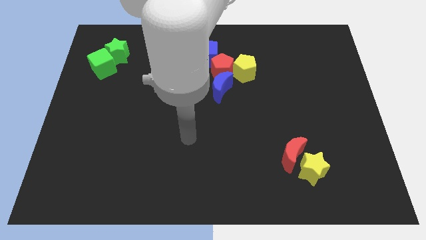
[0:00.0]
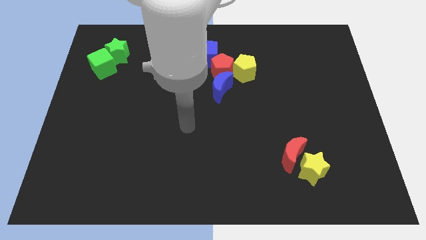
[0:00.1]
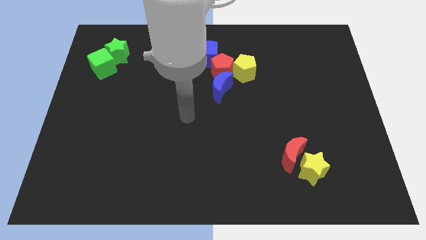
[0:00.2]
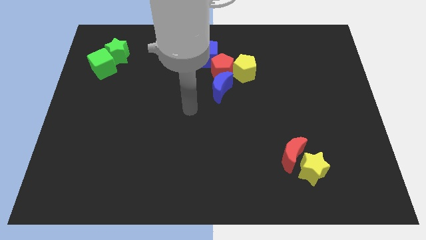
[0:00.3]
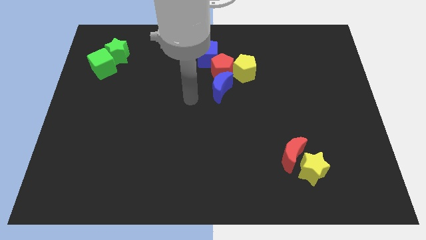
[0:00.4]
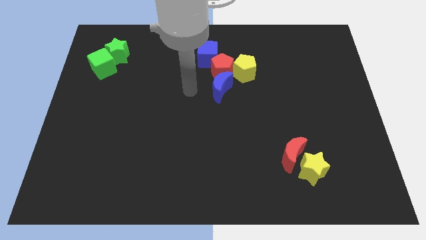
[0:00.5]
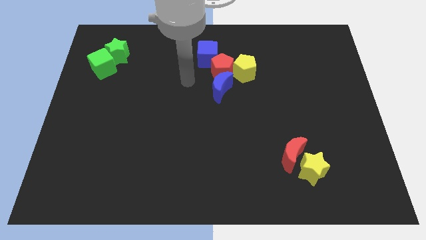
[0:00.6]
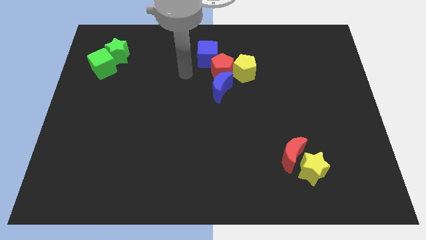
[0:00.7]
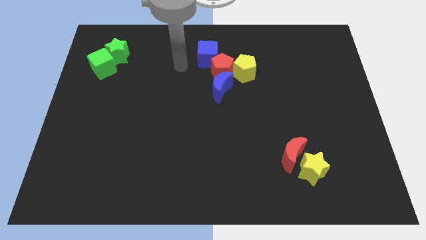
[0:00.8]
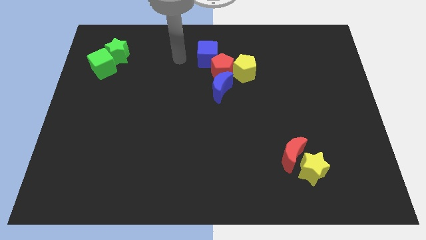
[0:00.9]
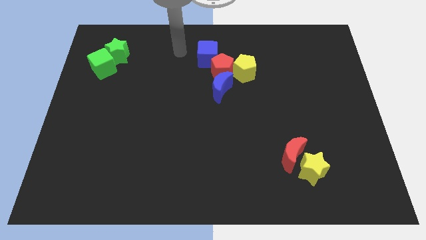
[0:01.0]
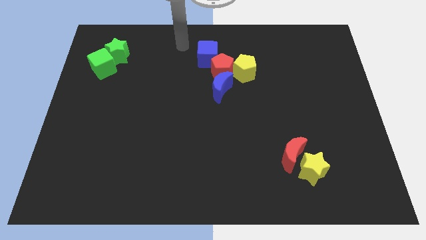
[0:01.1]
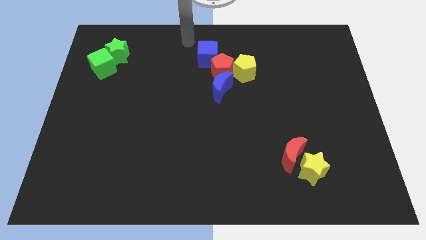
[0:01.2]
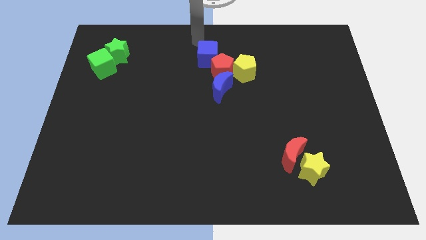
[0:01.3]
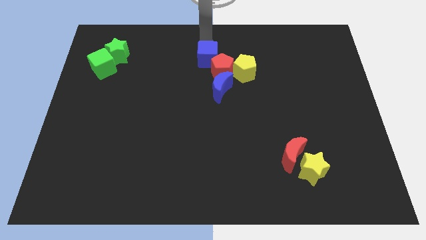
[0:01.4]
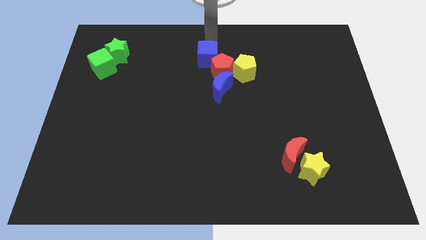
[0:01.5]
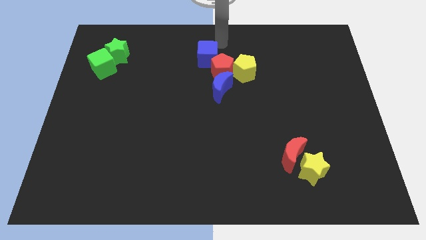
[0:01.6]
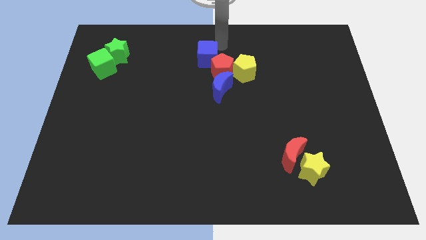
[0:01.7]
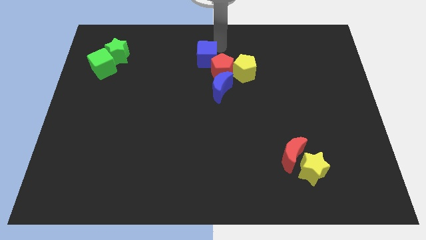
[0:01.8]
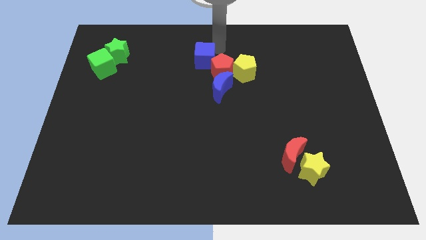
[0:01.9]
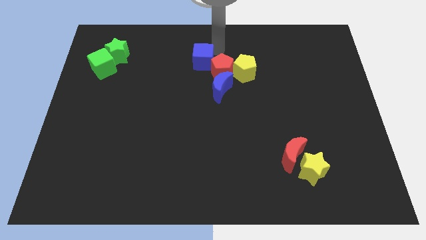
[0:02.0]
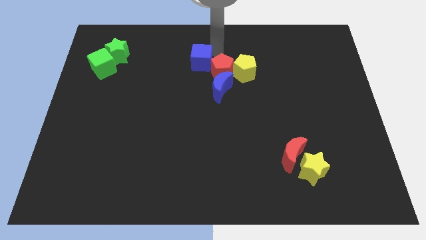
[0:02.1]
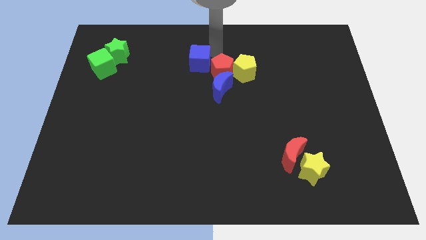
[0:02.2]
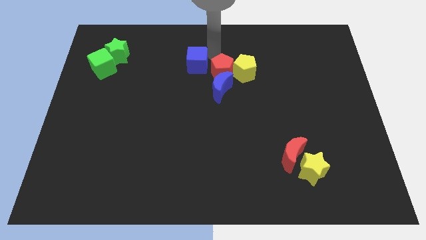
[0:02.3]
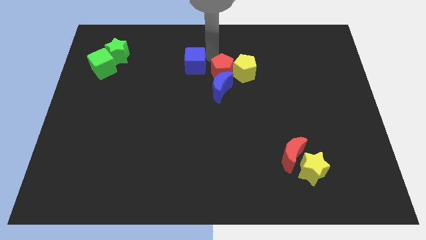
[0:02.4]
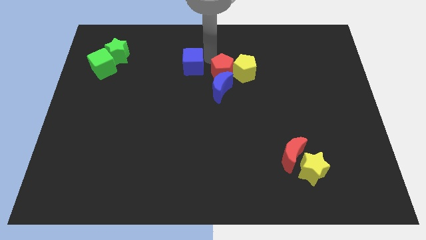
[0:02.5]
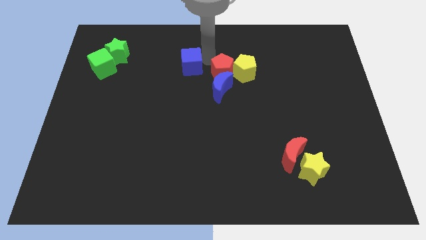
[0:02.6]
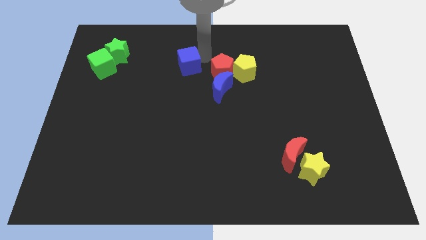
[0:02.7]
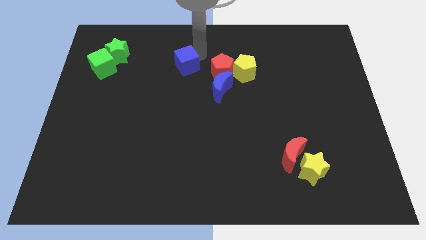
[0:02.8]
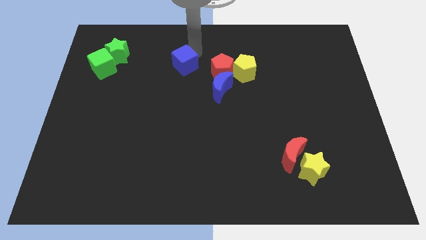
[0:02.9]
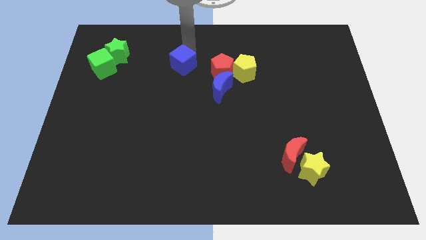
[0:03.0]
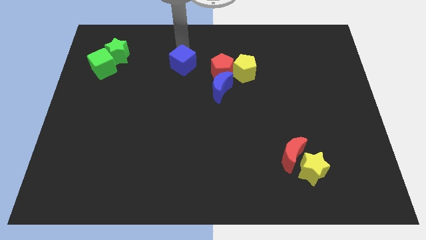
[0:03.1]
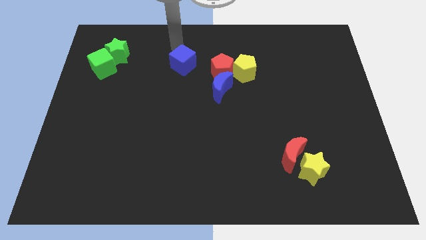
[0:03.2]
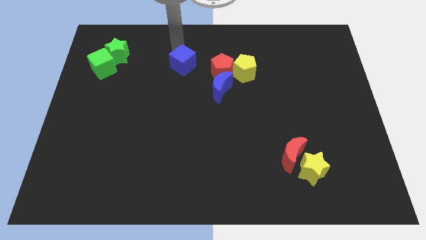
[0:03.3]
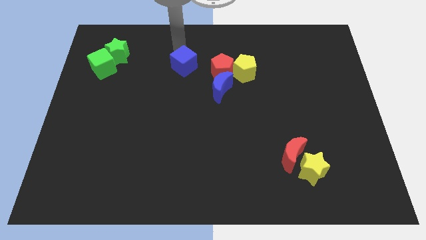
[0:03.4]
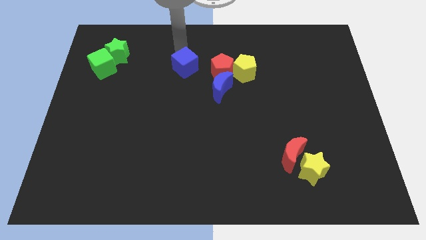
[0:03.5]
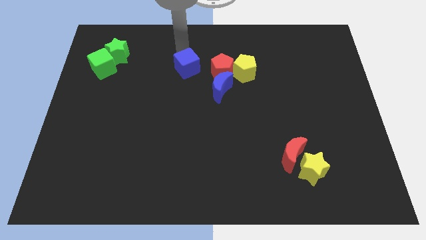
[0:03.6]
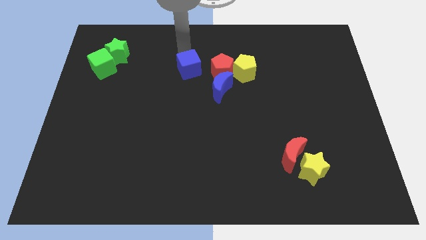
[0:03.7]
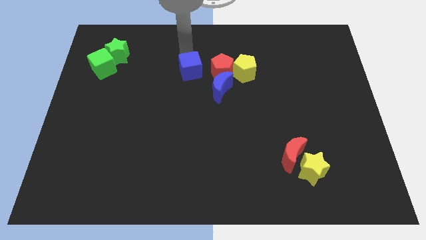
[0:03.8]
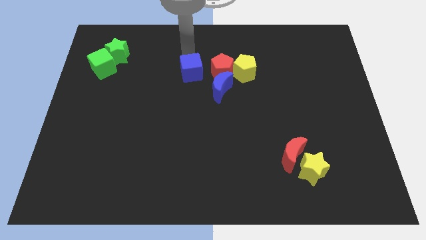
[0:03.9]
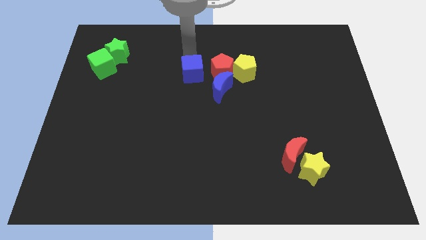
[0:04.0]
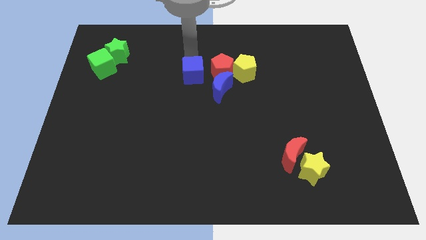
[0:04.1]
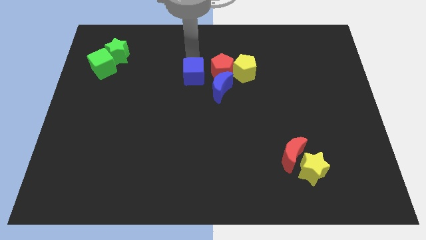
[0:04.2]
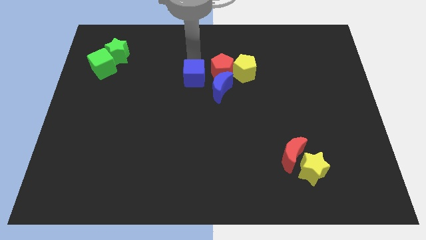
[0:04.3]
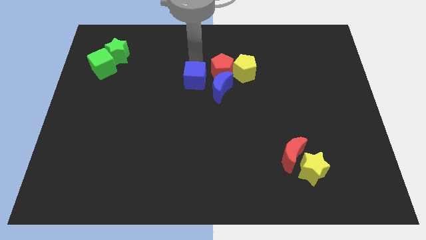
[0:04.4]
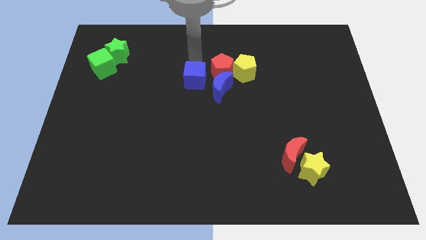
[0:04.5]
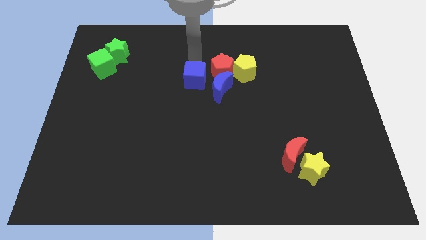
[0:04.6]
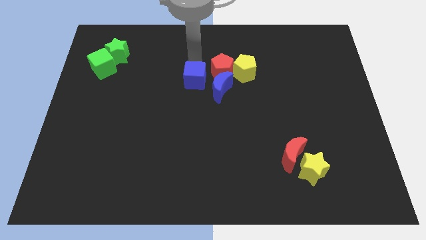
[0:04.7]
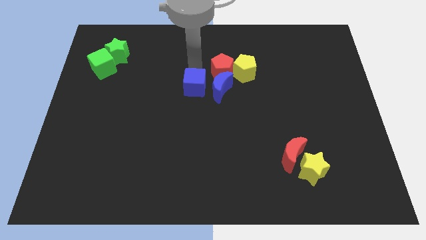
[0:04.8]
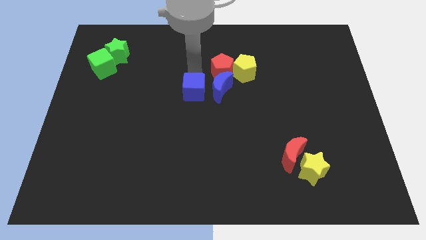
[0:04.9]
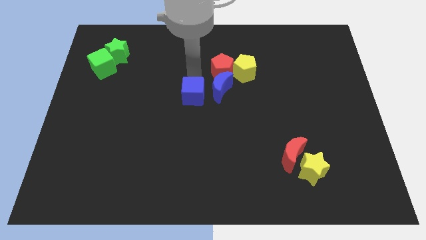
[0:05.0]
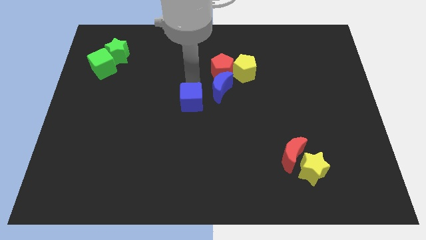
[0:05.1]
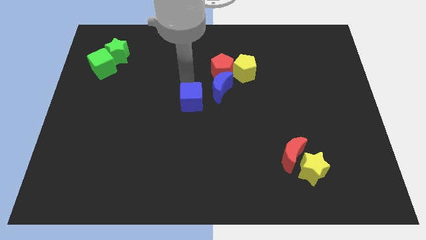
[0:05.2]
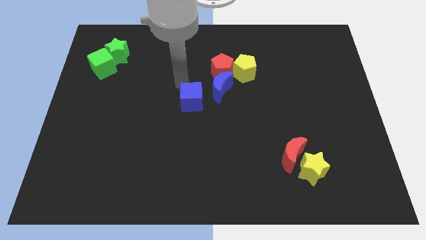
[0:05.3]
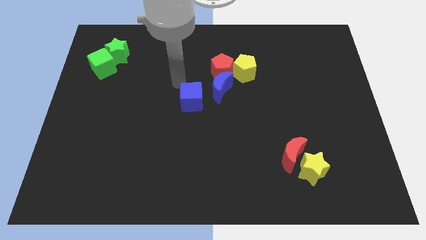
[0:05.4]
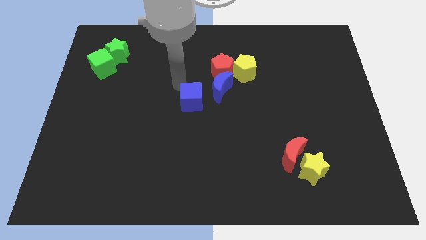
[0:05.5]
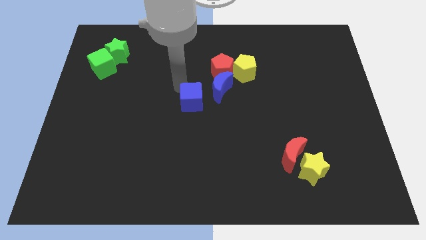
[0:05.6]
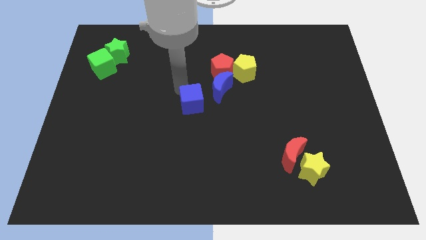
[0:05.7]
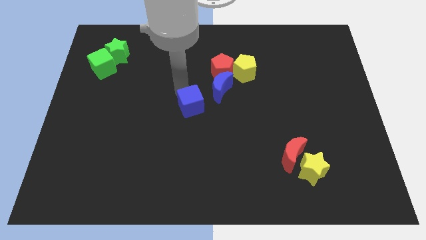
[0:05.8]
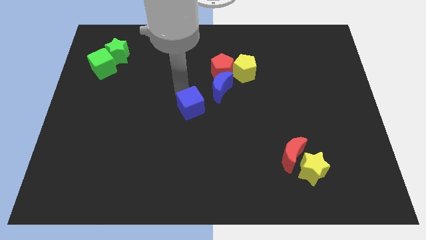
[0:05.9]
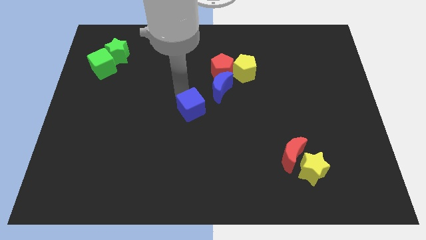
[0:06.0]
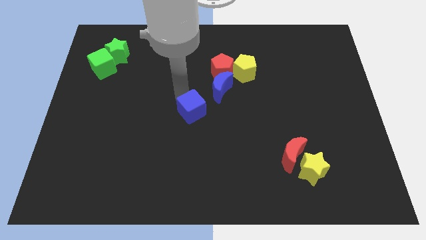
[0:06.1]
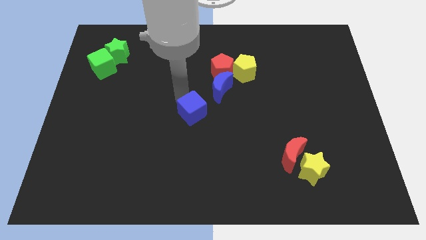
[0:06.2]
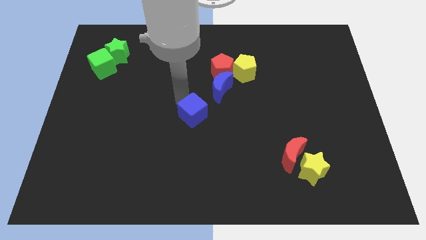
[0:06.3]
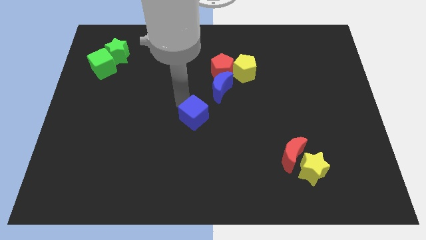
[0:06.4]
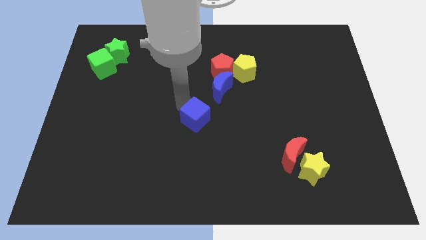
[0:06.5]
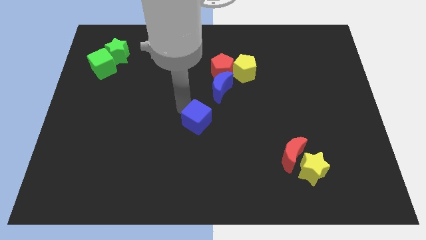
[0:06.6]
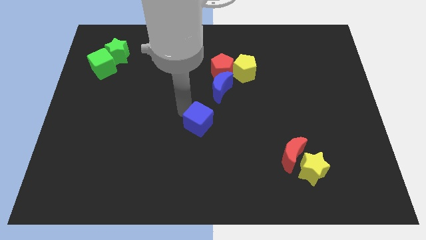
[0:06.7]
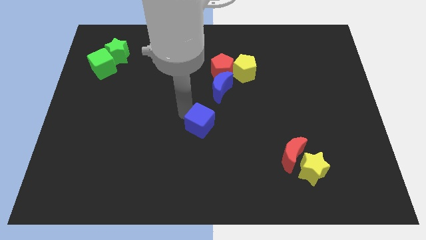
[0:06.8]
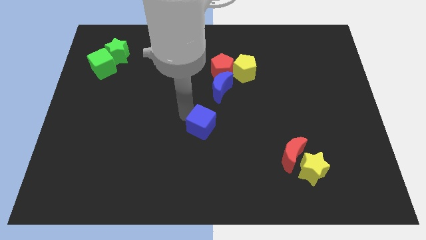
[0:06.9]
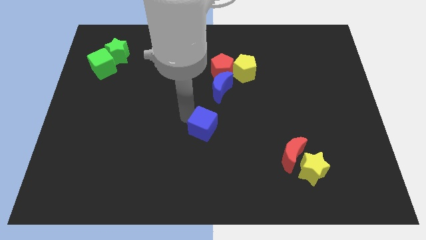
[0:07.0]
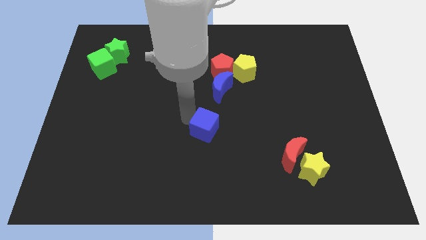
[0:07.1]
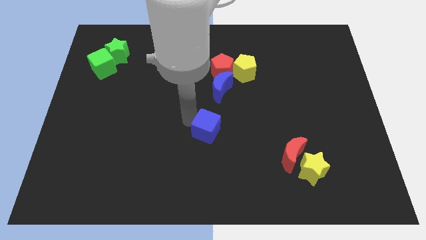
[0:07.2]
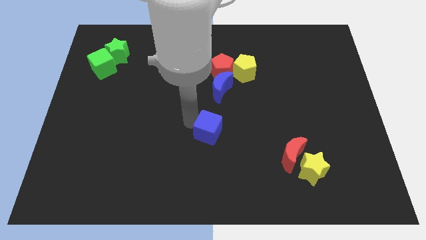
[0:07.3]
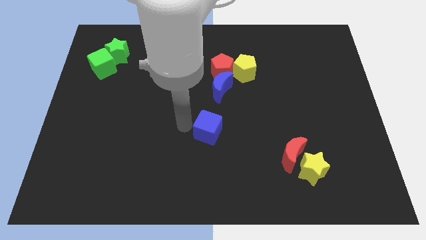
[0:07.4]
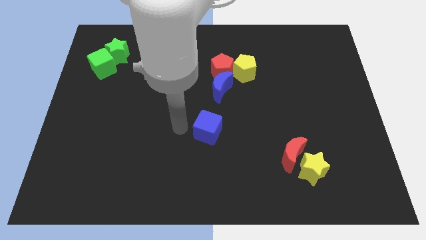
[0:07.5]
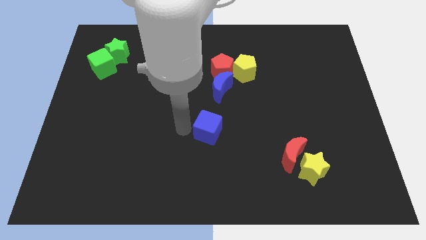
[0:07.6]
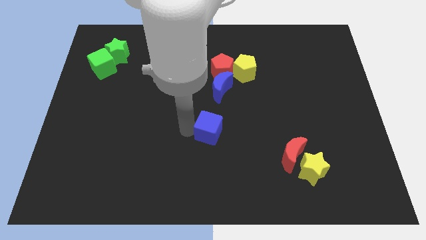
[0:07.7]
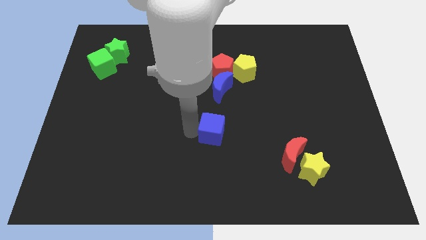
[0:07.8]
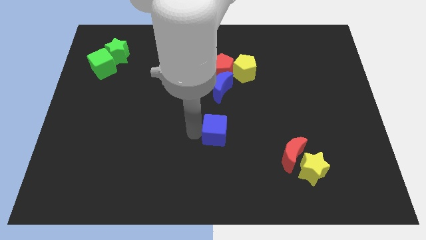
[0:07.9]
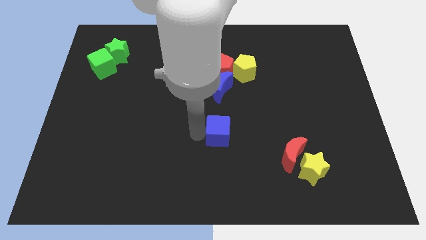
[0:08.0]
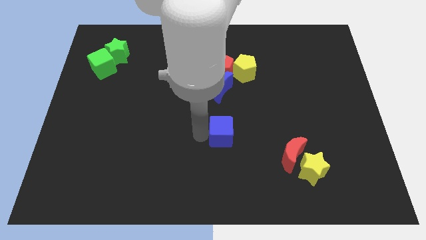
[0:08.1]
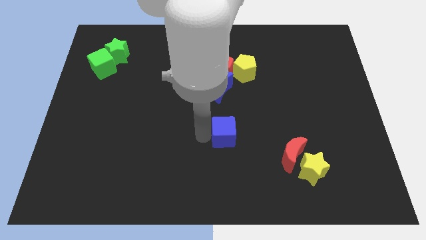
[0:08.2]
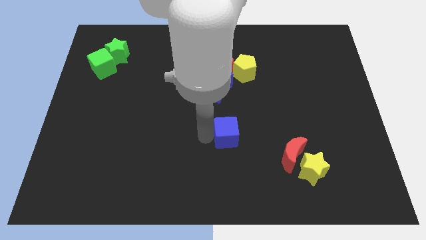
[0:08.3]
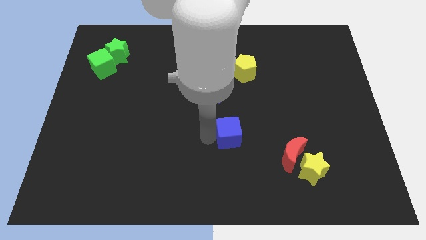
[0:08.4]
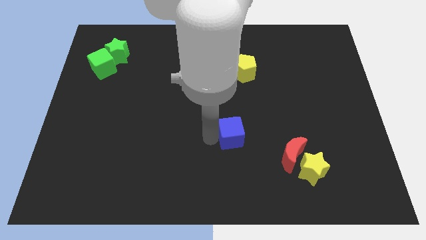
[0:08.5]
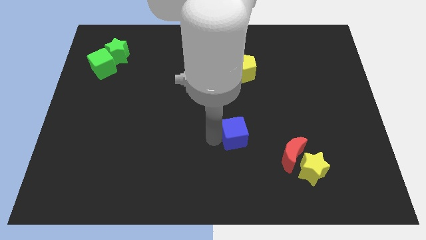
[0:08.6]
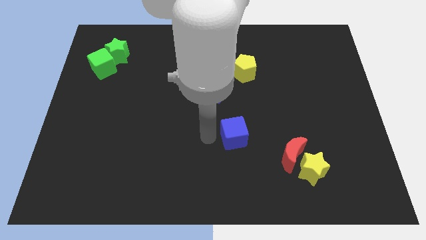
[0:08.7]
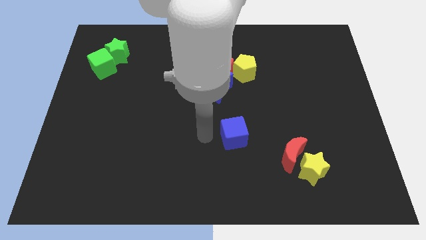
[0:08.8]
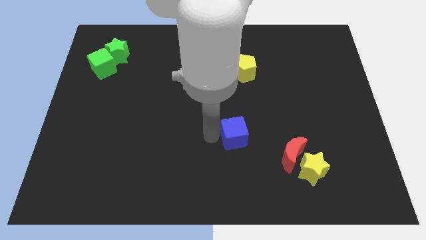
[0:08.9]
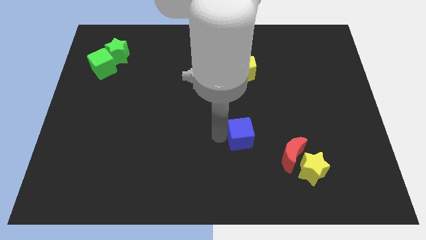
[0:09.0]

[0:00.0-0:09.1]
move the blue cube to the top left side of the red moon
